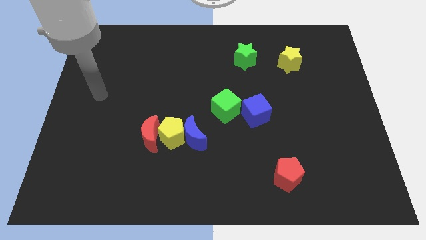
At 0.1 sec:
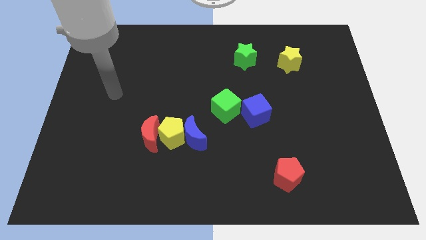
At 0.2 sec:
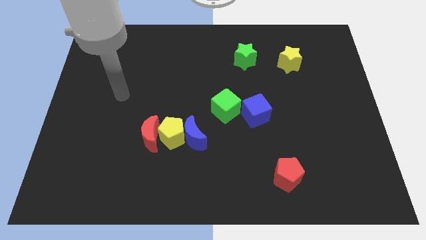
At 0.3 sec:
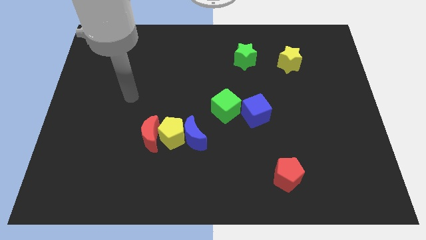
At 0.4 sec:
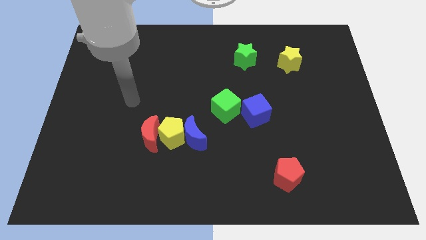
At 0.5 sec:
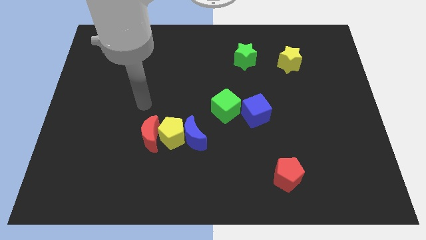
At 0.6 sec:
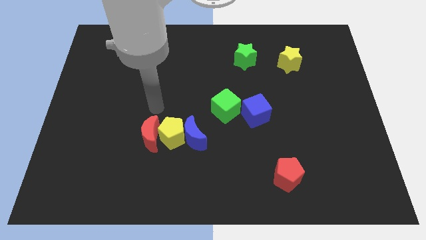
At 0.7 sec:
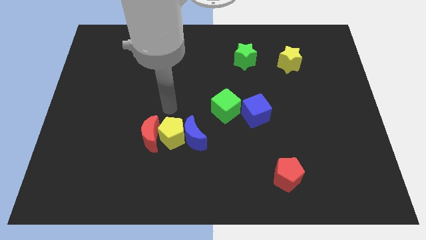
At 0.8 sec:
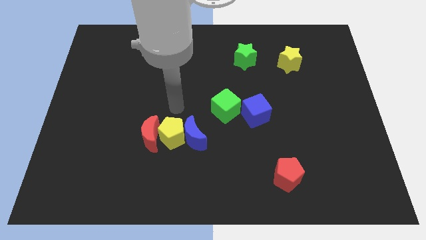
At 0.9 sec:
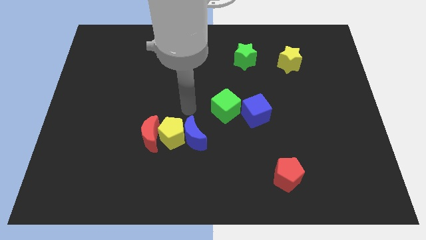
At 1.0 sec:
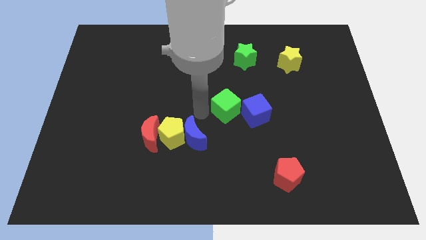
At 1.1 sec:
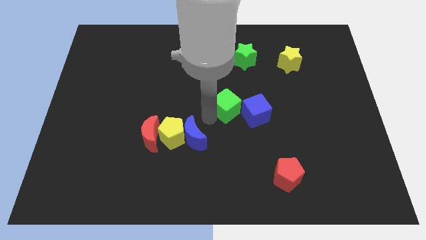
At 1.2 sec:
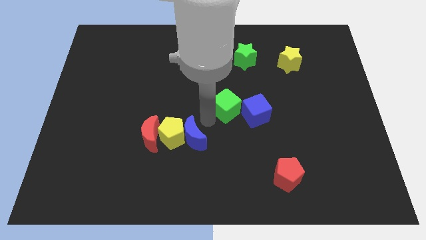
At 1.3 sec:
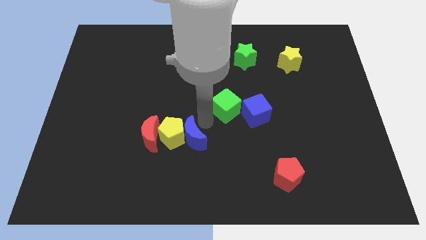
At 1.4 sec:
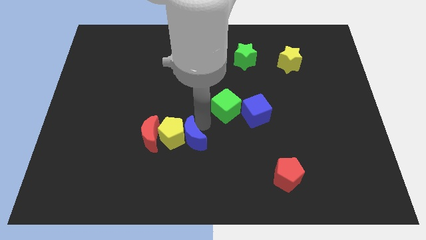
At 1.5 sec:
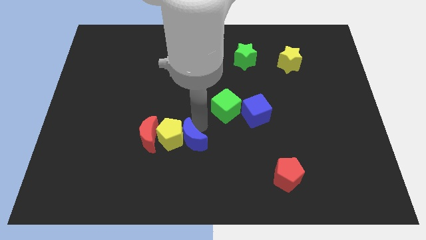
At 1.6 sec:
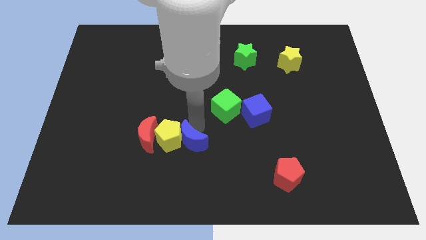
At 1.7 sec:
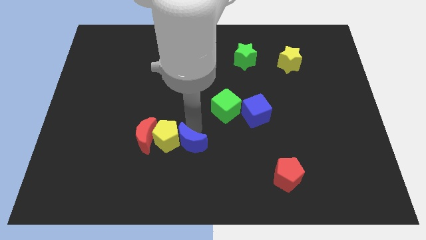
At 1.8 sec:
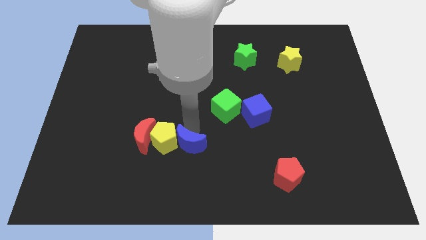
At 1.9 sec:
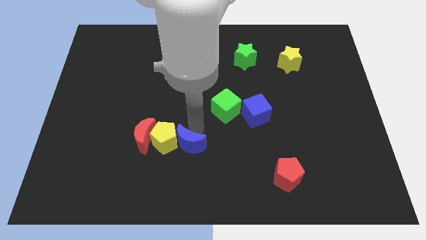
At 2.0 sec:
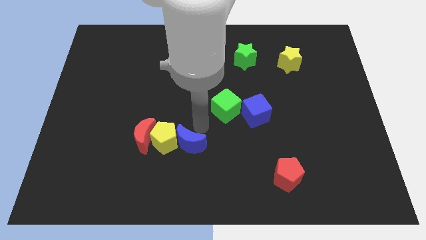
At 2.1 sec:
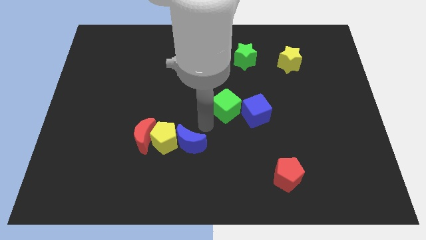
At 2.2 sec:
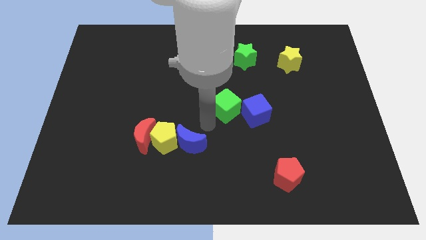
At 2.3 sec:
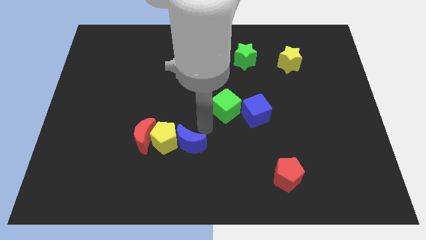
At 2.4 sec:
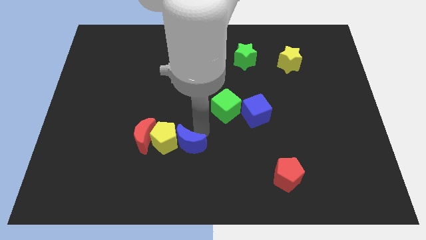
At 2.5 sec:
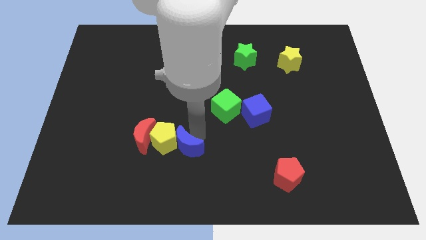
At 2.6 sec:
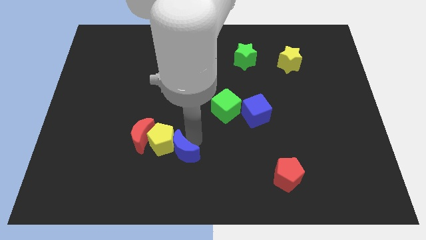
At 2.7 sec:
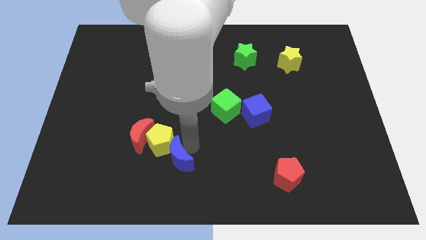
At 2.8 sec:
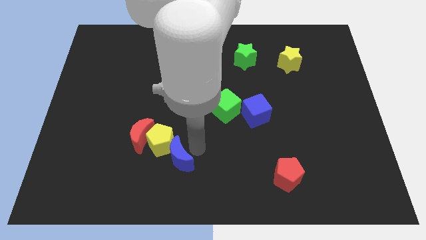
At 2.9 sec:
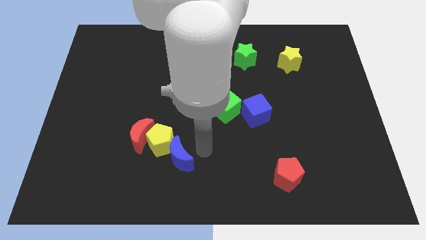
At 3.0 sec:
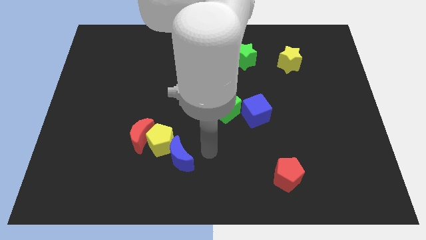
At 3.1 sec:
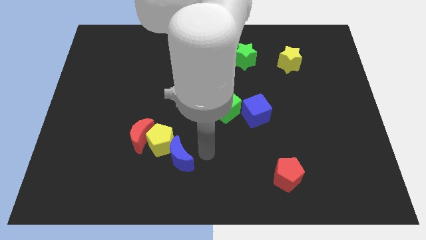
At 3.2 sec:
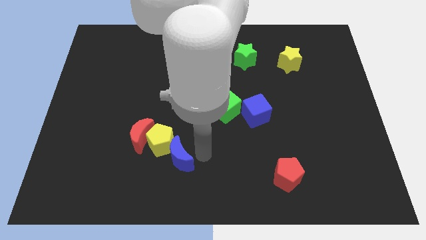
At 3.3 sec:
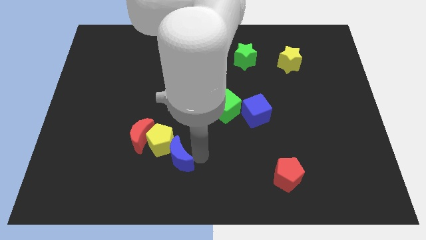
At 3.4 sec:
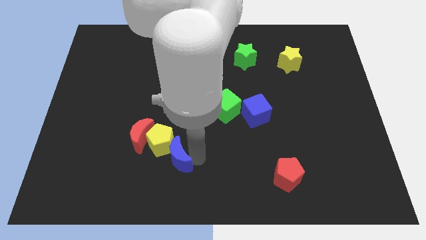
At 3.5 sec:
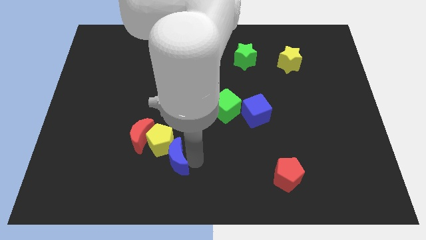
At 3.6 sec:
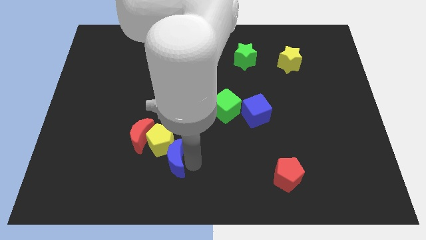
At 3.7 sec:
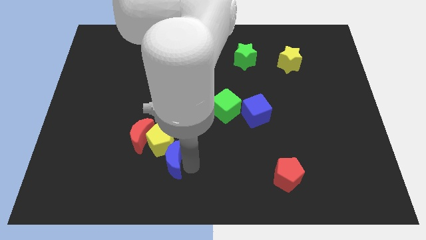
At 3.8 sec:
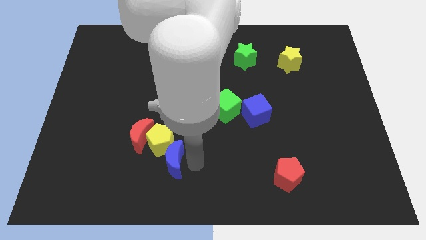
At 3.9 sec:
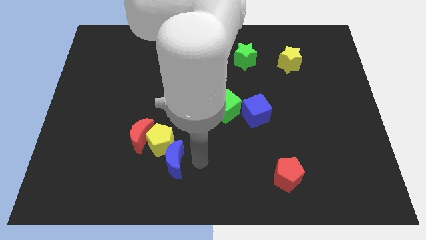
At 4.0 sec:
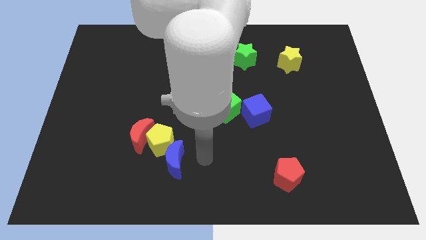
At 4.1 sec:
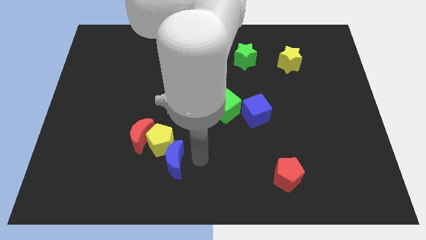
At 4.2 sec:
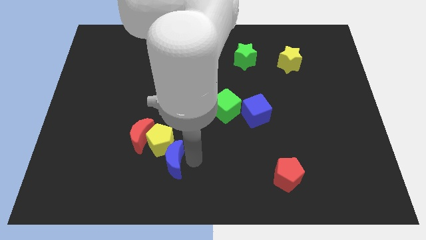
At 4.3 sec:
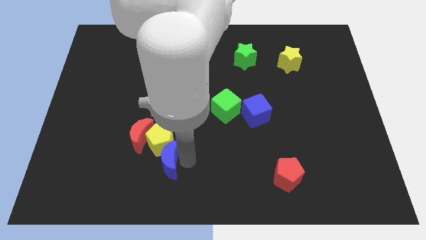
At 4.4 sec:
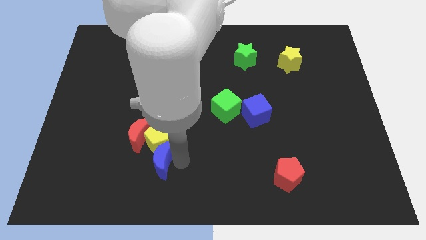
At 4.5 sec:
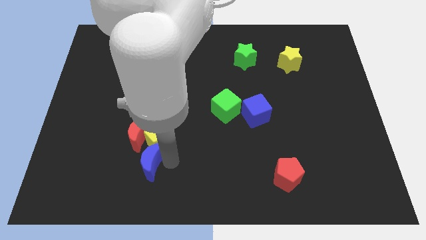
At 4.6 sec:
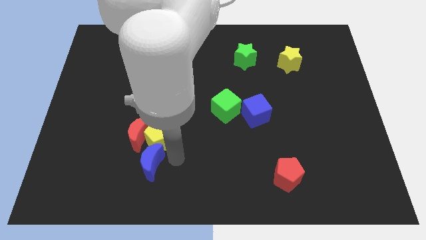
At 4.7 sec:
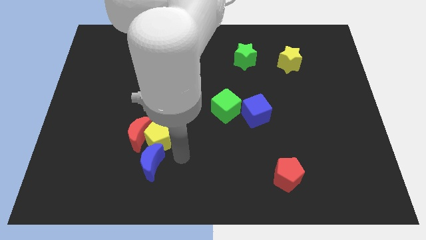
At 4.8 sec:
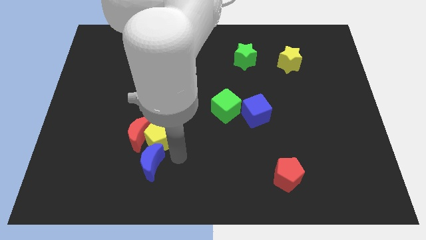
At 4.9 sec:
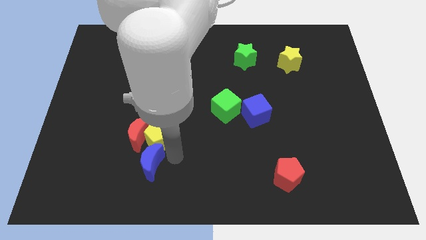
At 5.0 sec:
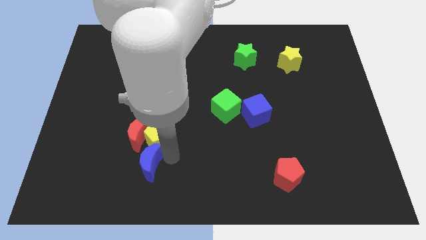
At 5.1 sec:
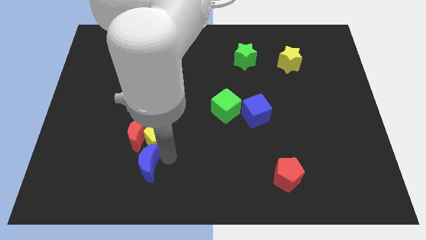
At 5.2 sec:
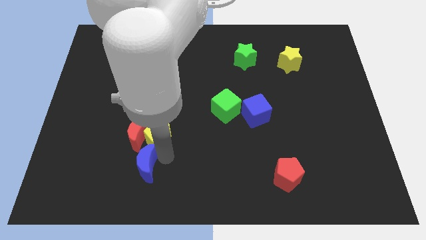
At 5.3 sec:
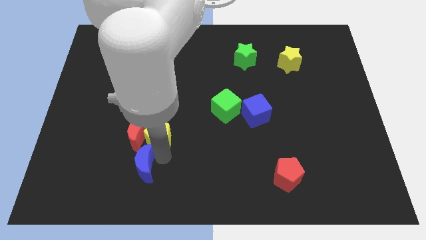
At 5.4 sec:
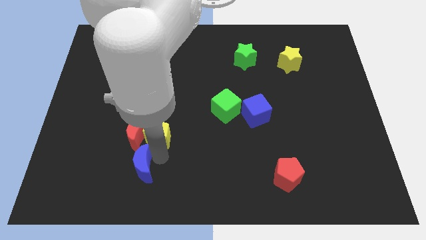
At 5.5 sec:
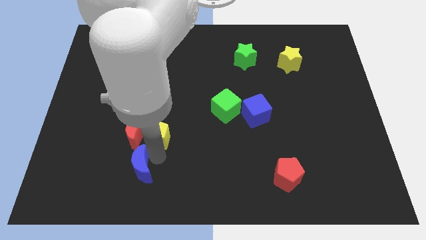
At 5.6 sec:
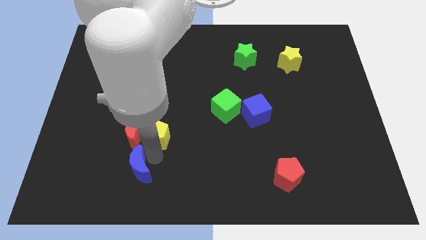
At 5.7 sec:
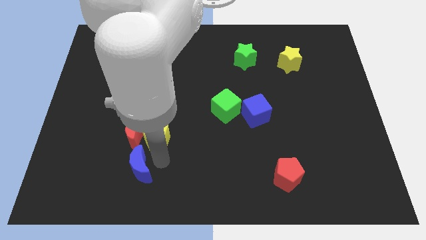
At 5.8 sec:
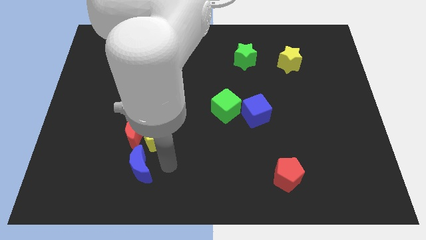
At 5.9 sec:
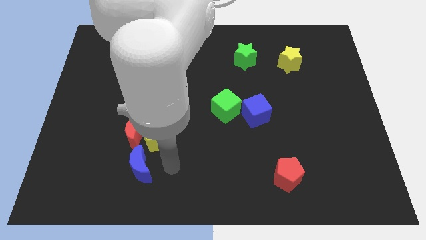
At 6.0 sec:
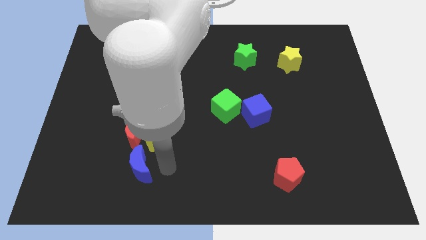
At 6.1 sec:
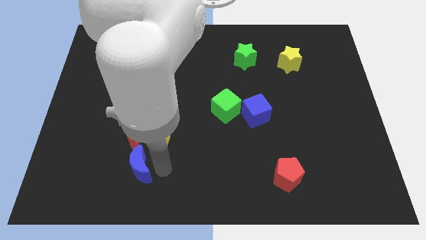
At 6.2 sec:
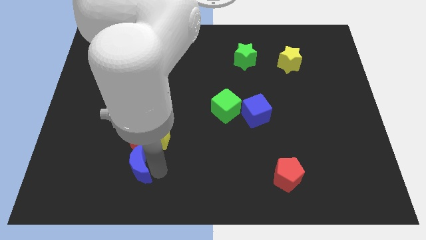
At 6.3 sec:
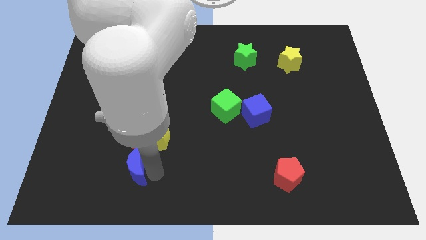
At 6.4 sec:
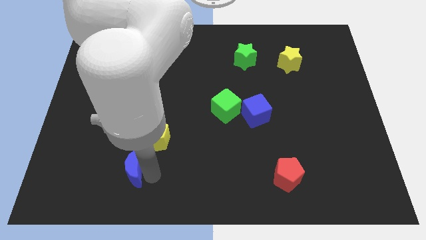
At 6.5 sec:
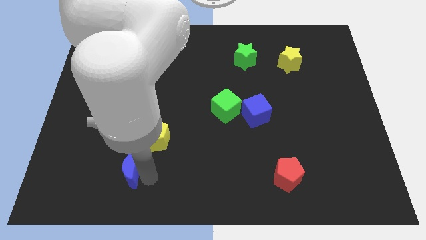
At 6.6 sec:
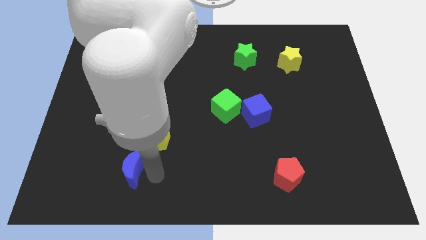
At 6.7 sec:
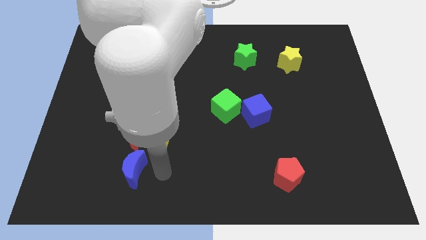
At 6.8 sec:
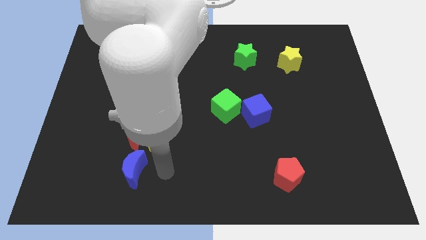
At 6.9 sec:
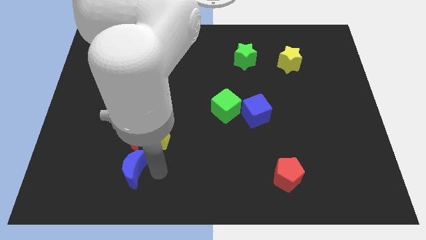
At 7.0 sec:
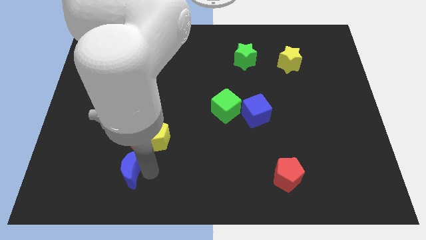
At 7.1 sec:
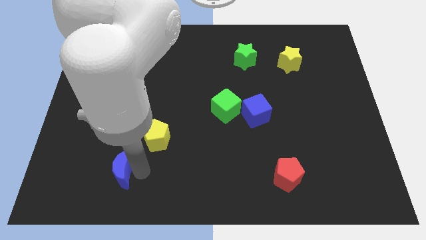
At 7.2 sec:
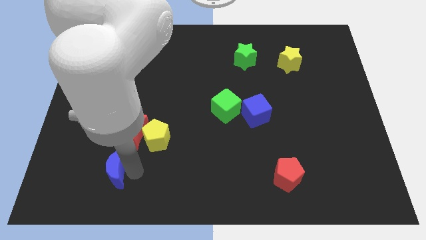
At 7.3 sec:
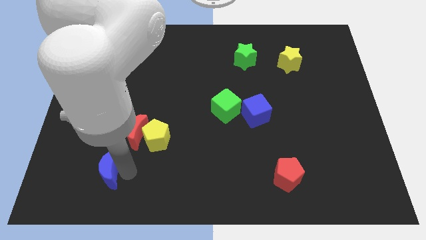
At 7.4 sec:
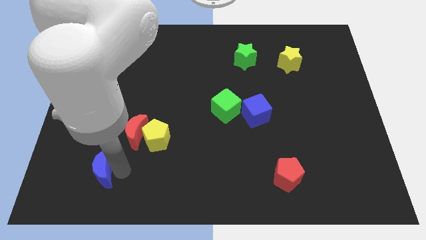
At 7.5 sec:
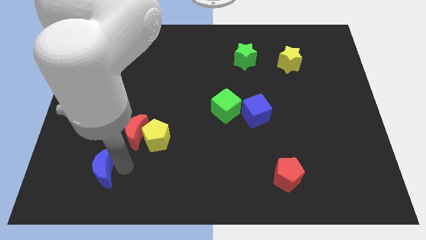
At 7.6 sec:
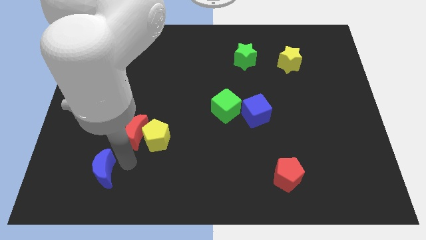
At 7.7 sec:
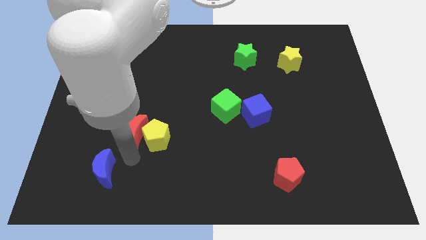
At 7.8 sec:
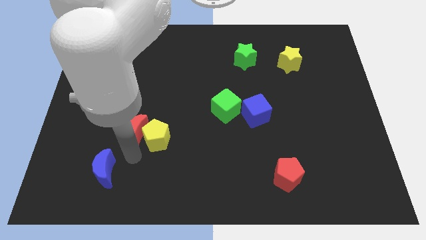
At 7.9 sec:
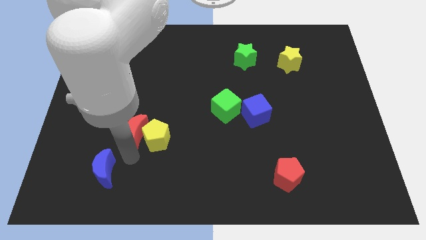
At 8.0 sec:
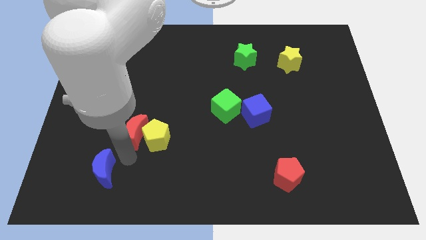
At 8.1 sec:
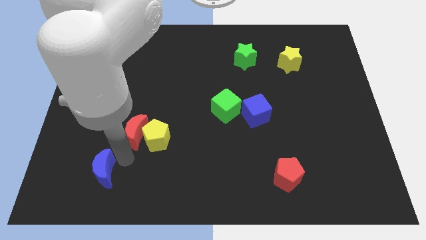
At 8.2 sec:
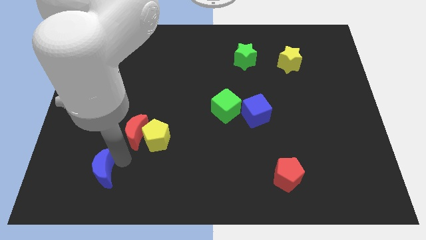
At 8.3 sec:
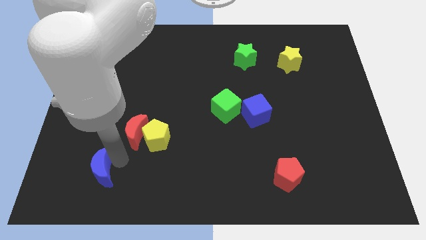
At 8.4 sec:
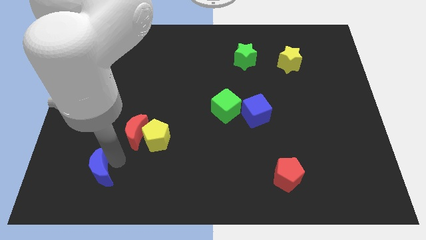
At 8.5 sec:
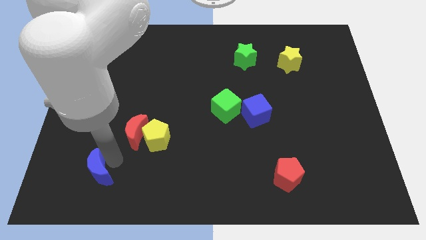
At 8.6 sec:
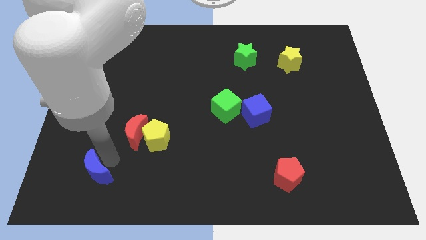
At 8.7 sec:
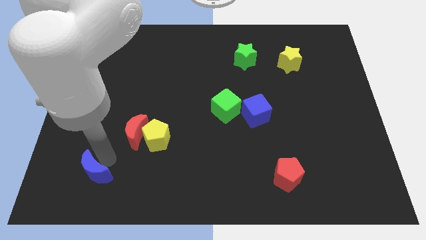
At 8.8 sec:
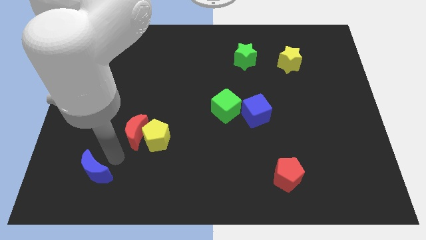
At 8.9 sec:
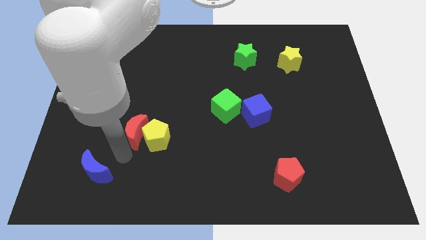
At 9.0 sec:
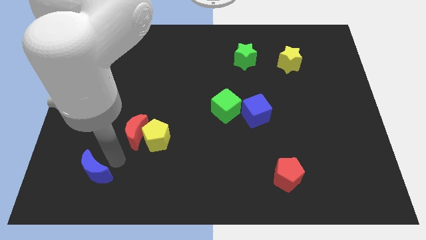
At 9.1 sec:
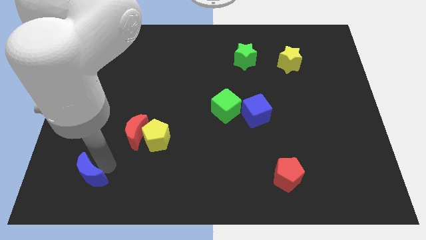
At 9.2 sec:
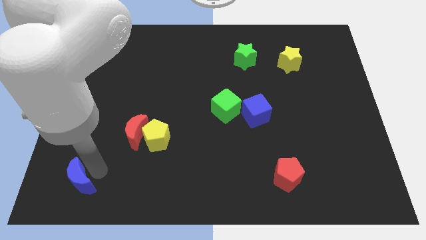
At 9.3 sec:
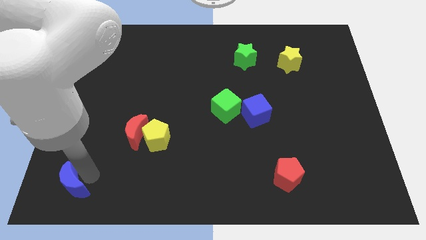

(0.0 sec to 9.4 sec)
slide the blue moon to the bottom left corner
